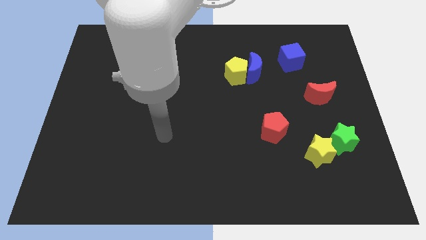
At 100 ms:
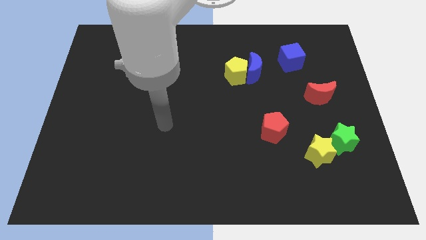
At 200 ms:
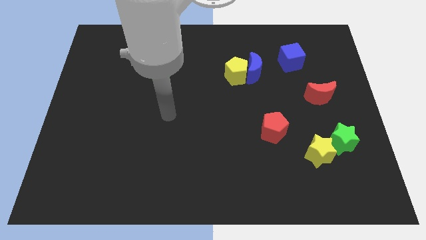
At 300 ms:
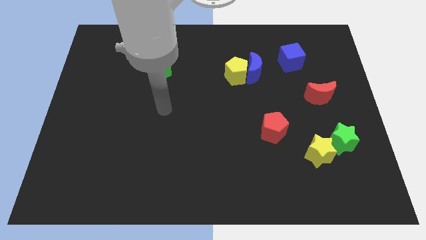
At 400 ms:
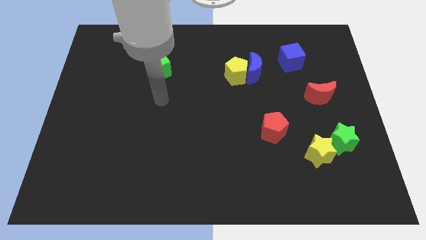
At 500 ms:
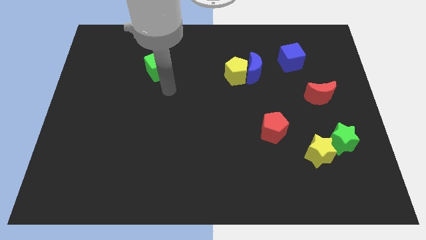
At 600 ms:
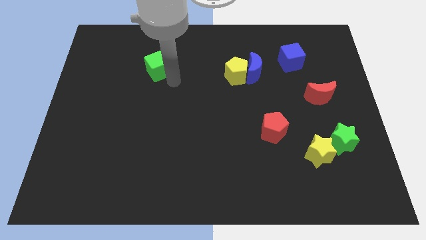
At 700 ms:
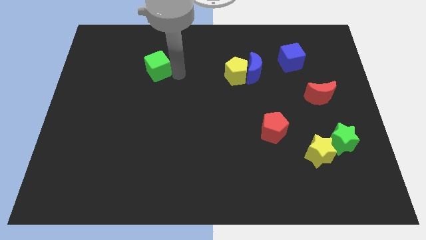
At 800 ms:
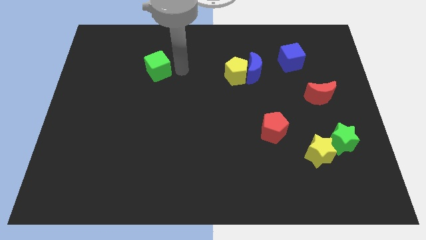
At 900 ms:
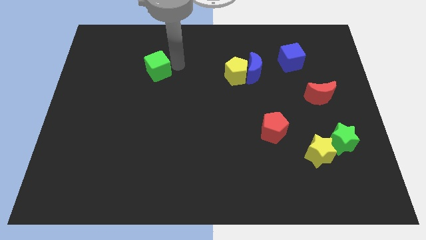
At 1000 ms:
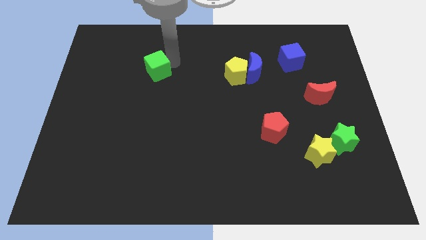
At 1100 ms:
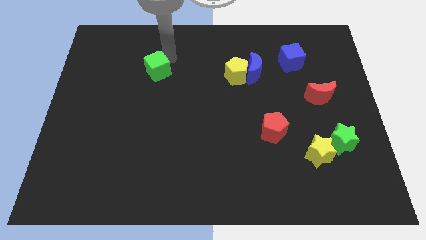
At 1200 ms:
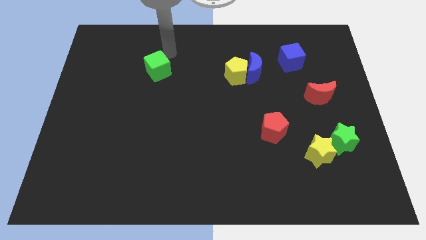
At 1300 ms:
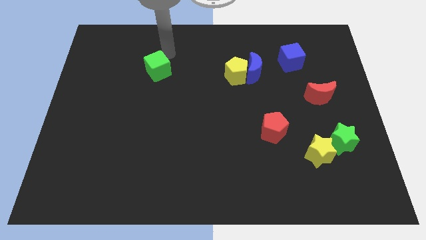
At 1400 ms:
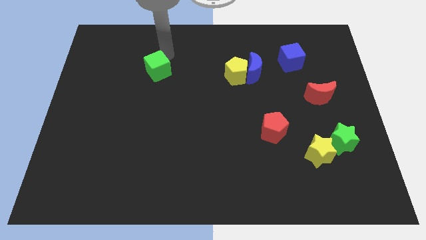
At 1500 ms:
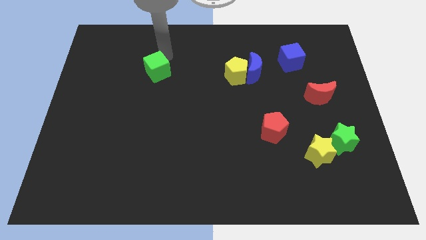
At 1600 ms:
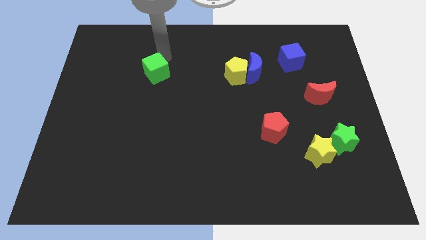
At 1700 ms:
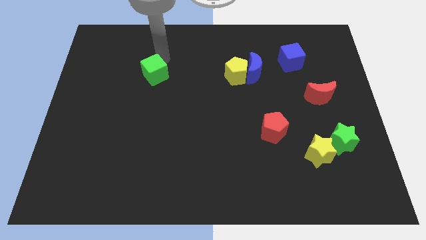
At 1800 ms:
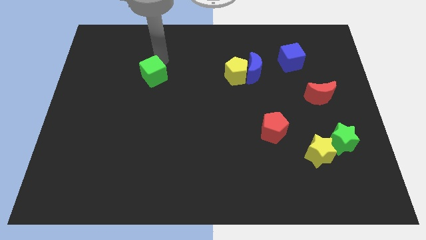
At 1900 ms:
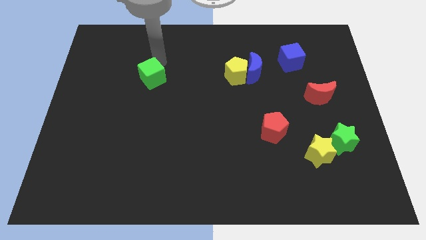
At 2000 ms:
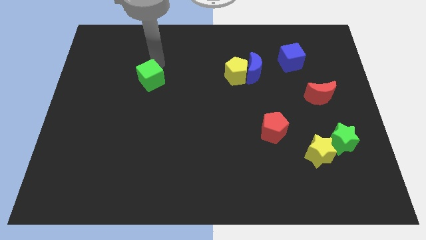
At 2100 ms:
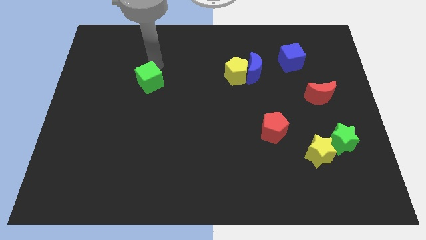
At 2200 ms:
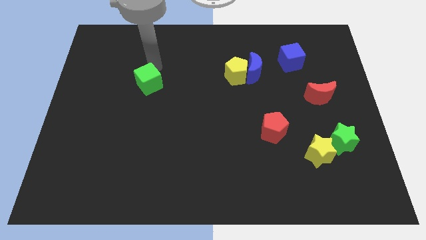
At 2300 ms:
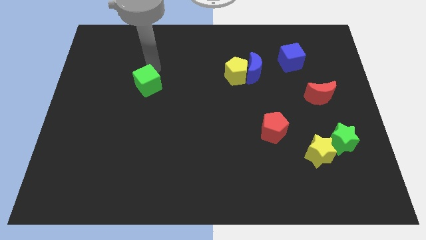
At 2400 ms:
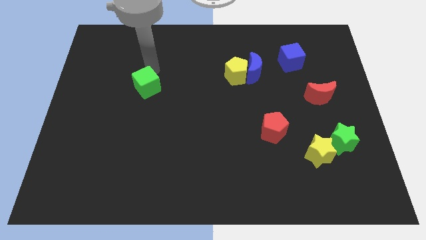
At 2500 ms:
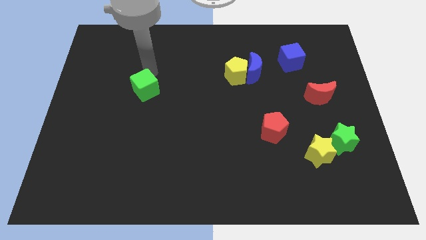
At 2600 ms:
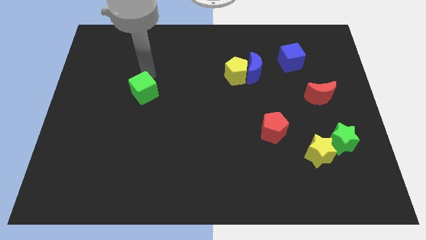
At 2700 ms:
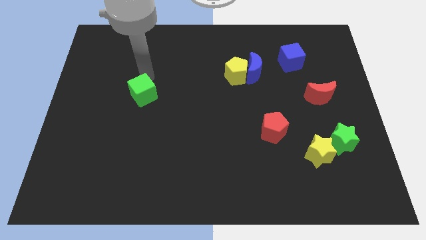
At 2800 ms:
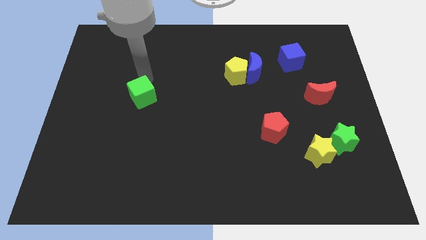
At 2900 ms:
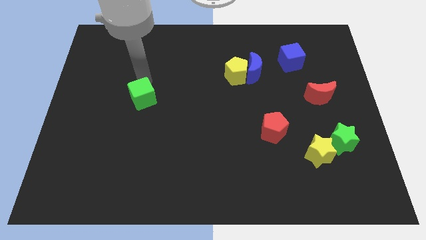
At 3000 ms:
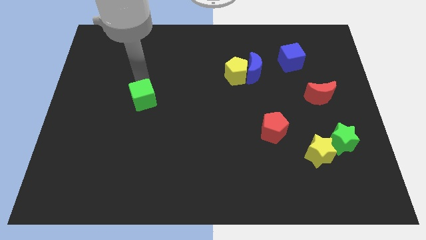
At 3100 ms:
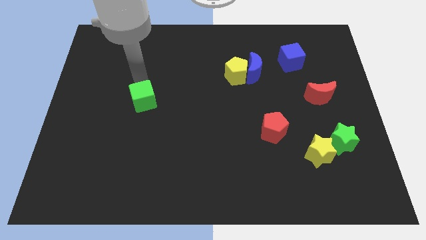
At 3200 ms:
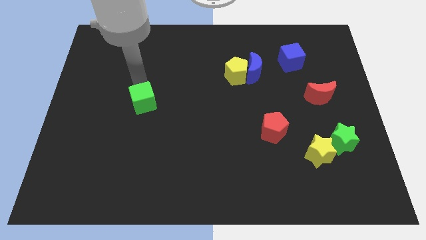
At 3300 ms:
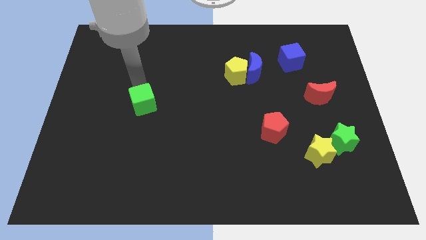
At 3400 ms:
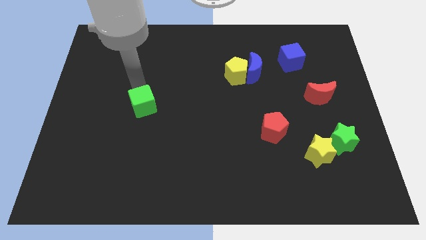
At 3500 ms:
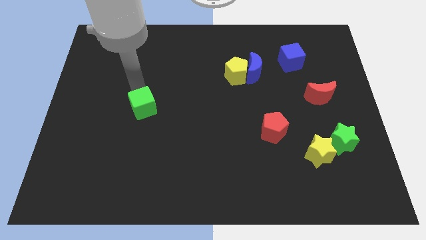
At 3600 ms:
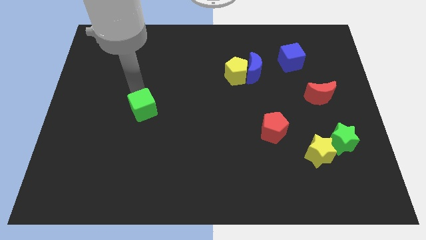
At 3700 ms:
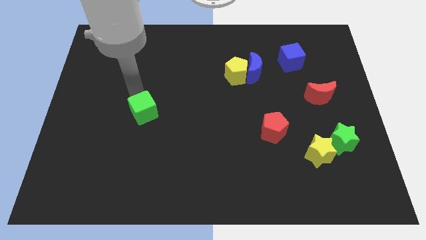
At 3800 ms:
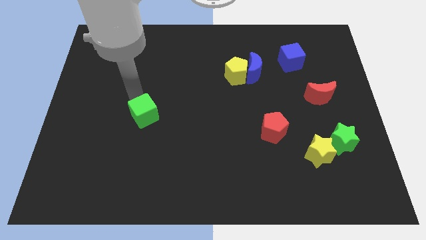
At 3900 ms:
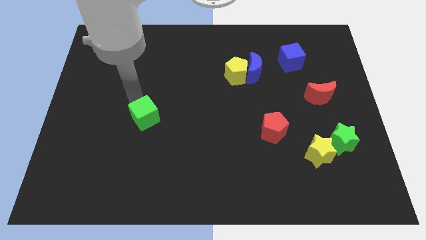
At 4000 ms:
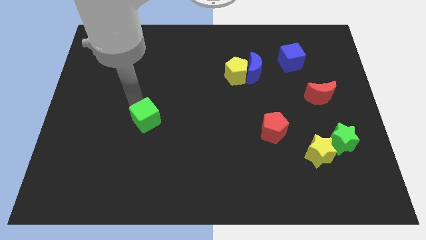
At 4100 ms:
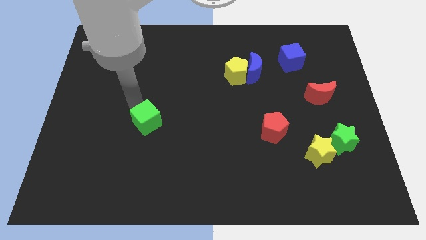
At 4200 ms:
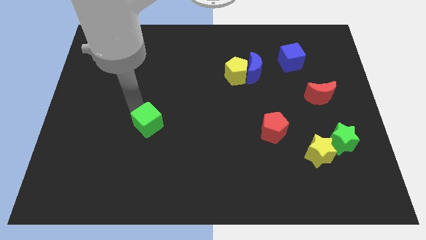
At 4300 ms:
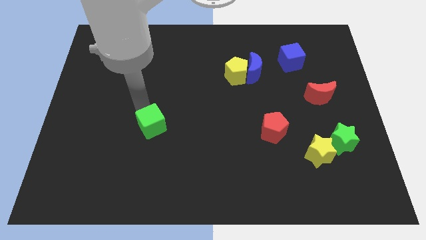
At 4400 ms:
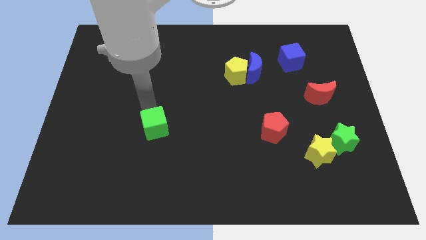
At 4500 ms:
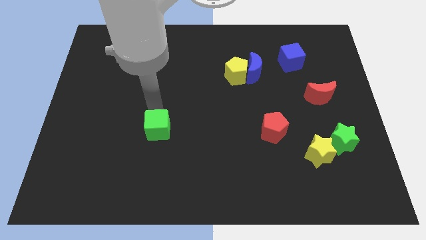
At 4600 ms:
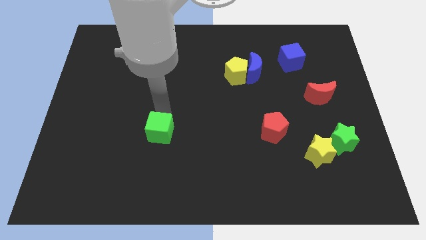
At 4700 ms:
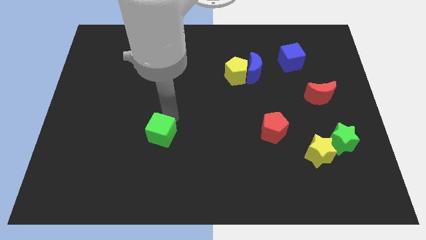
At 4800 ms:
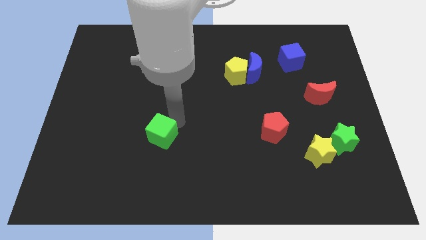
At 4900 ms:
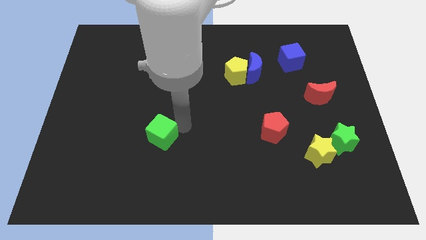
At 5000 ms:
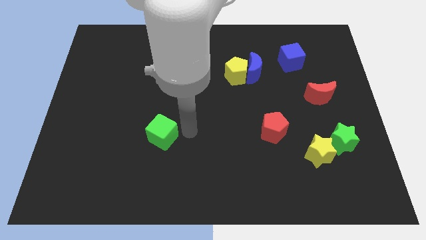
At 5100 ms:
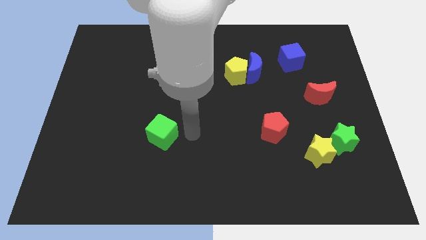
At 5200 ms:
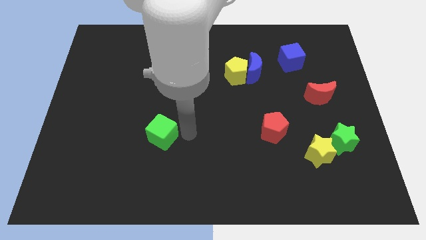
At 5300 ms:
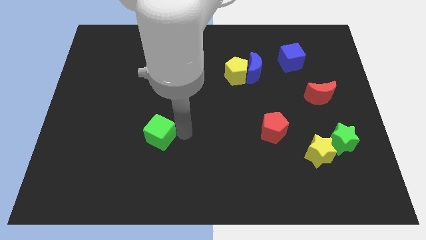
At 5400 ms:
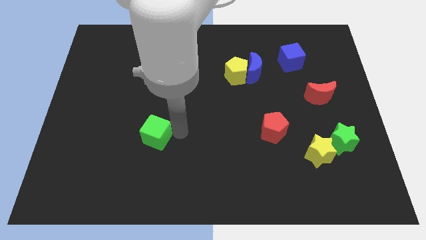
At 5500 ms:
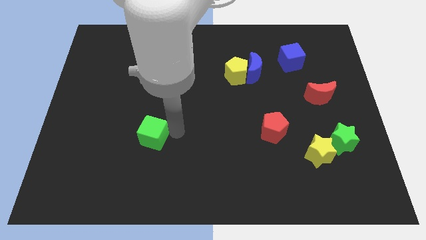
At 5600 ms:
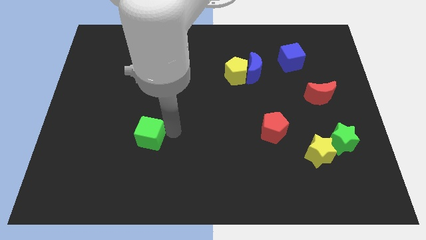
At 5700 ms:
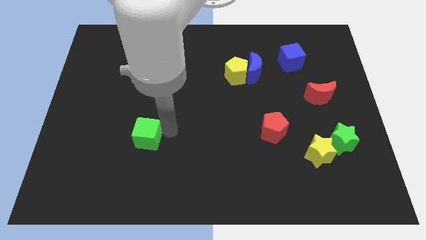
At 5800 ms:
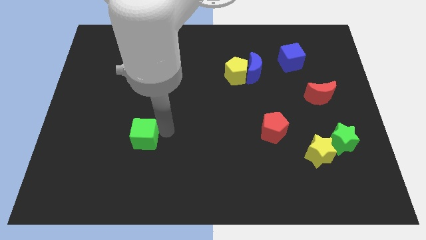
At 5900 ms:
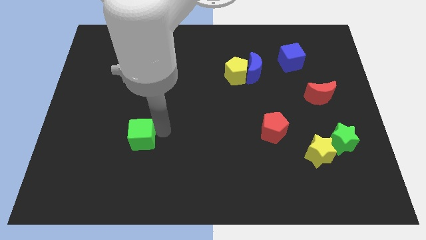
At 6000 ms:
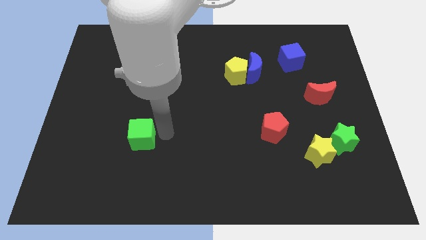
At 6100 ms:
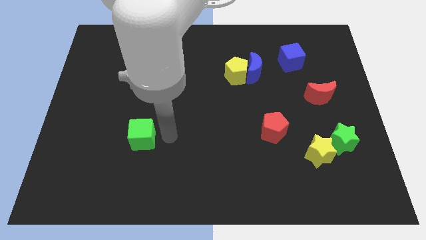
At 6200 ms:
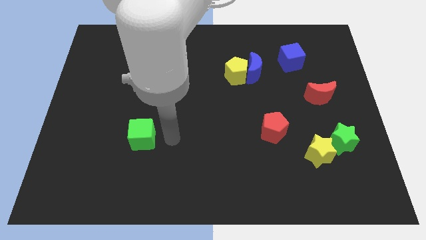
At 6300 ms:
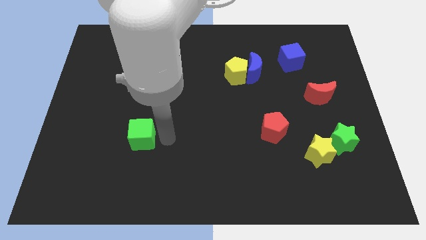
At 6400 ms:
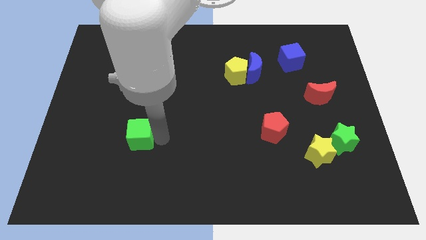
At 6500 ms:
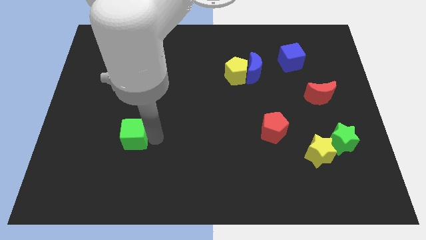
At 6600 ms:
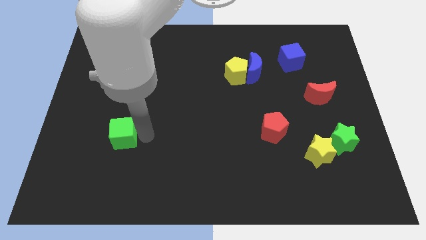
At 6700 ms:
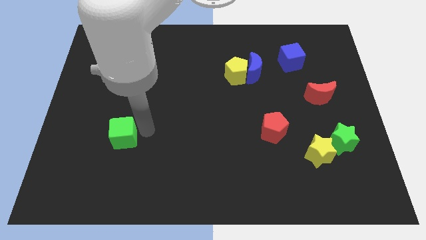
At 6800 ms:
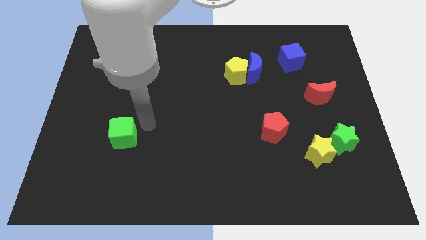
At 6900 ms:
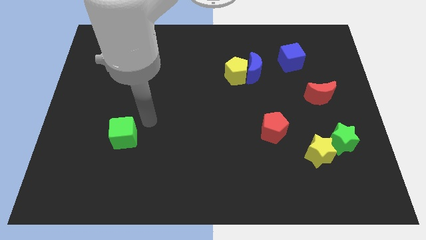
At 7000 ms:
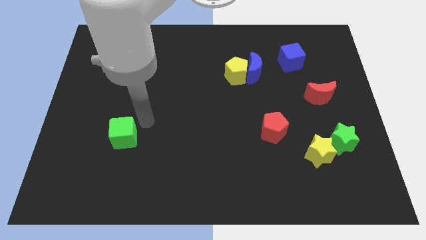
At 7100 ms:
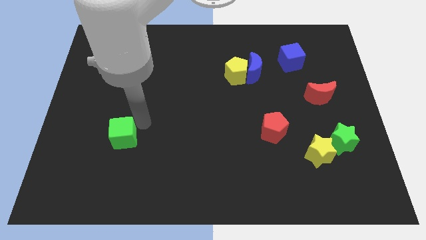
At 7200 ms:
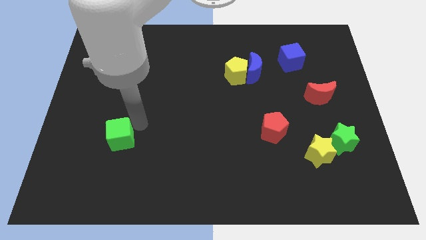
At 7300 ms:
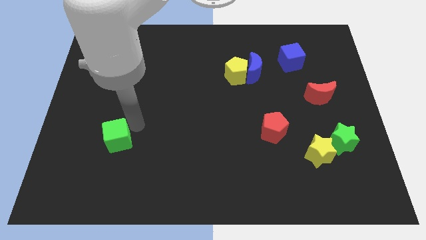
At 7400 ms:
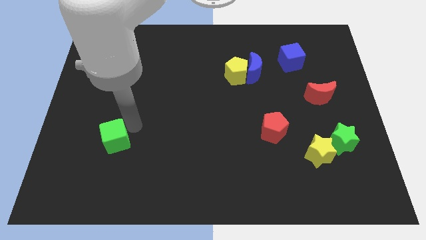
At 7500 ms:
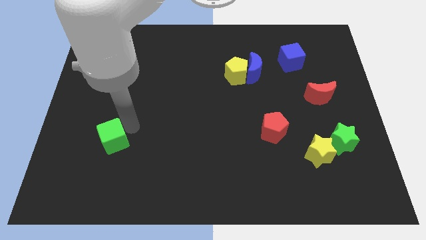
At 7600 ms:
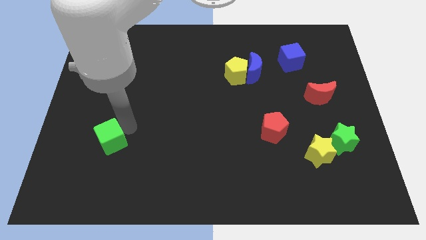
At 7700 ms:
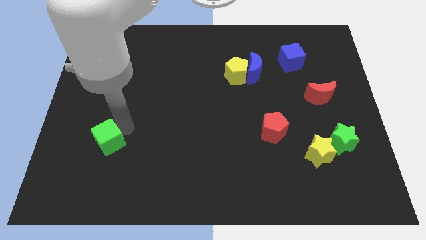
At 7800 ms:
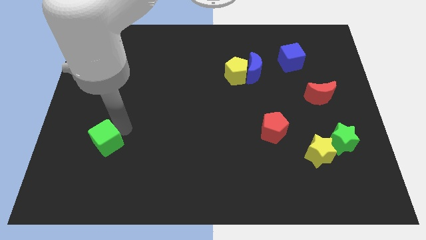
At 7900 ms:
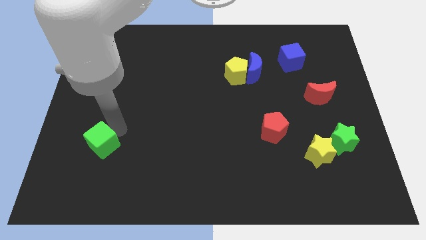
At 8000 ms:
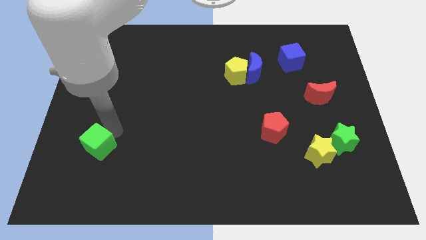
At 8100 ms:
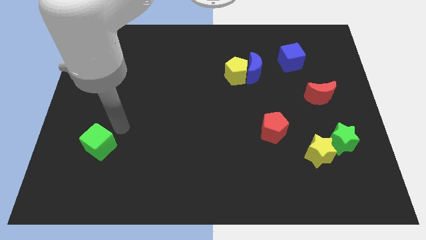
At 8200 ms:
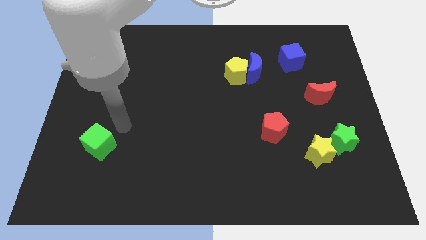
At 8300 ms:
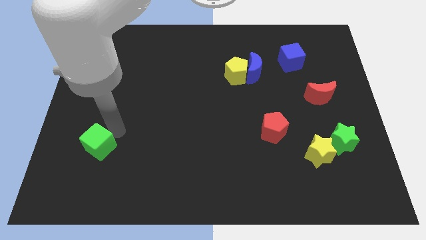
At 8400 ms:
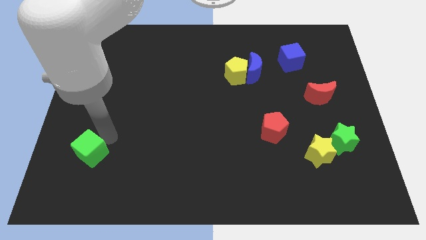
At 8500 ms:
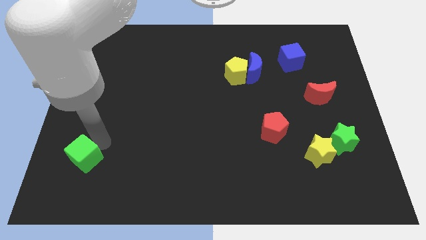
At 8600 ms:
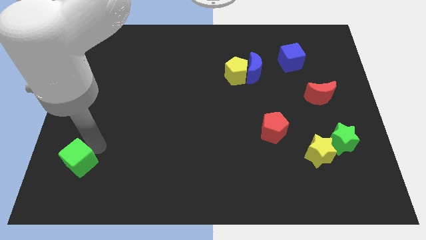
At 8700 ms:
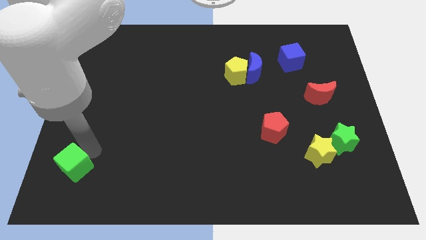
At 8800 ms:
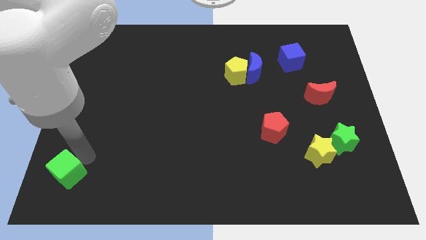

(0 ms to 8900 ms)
push the green cube to the bottom left of the board
